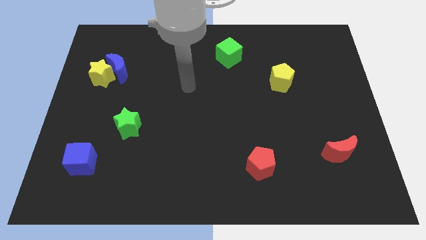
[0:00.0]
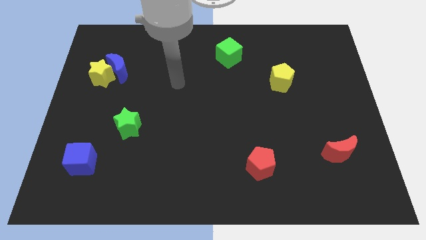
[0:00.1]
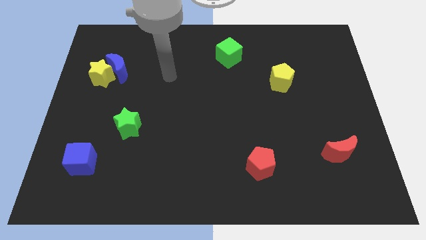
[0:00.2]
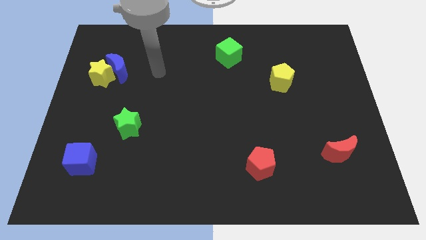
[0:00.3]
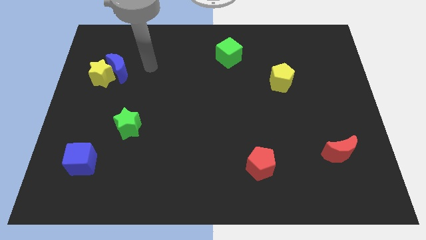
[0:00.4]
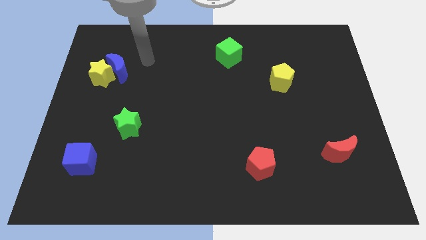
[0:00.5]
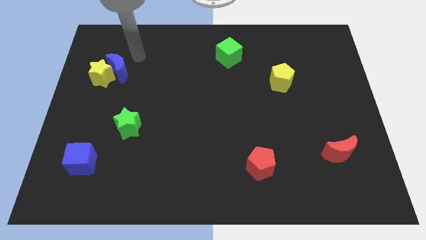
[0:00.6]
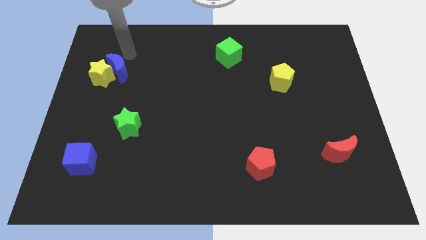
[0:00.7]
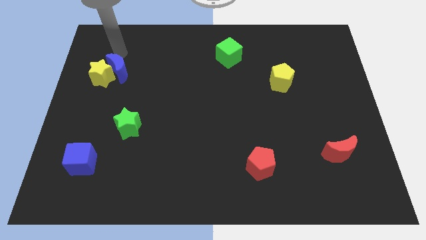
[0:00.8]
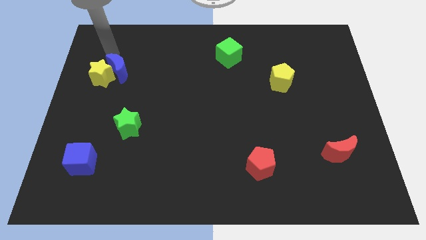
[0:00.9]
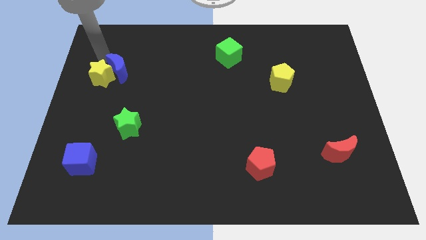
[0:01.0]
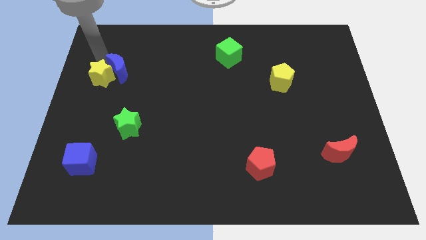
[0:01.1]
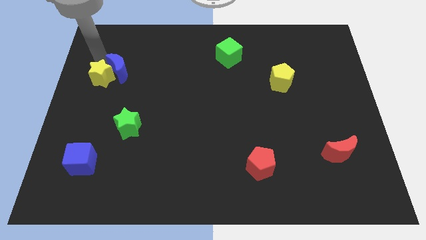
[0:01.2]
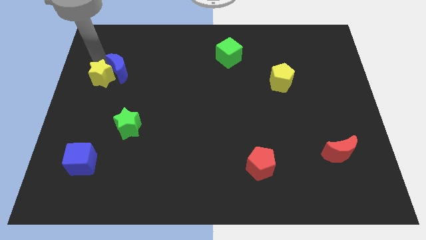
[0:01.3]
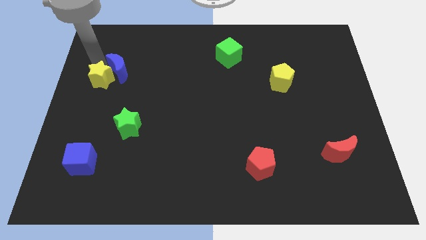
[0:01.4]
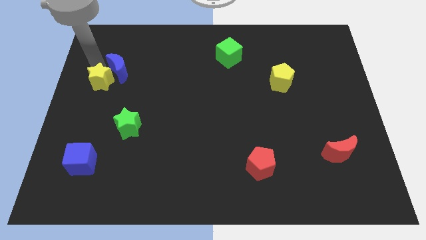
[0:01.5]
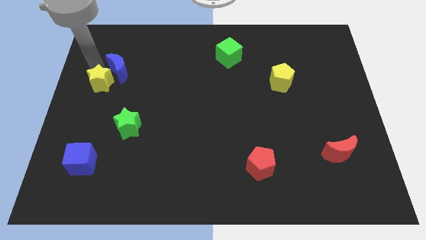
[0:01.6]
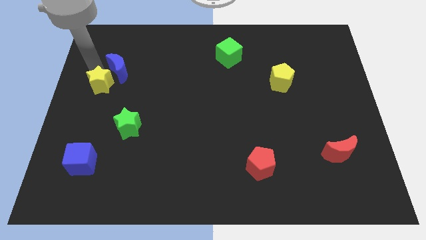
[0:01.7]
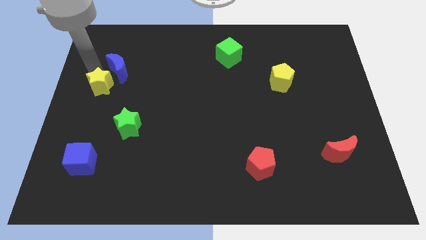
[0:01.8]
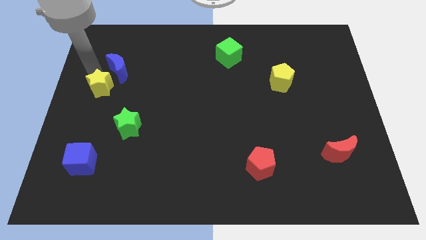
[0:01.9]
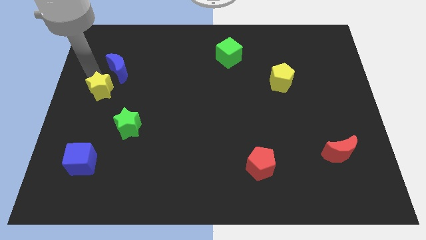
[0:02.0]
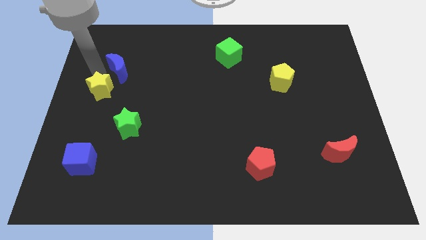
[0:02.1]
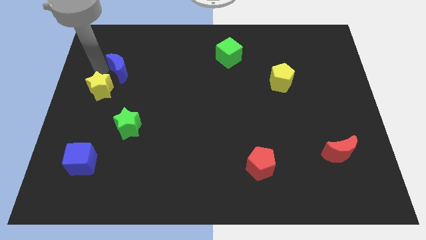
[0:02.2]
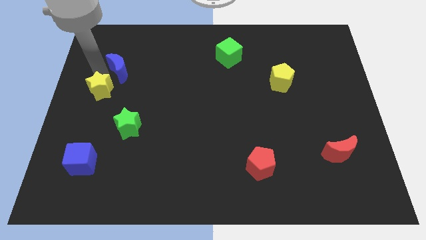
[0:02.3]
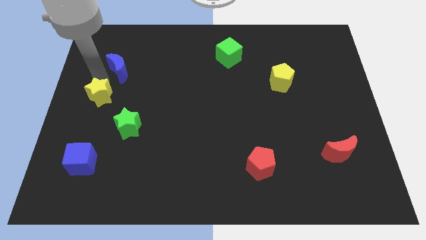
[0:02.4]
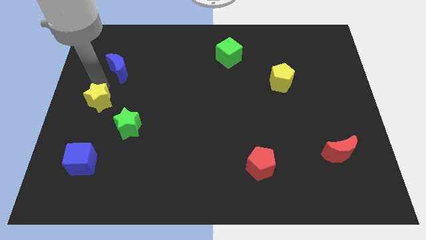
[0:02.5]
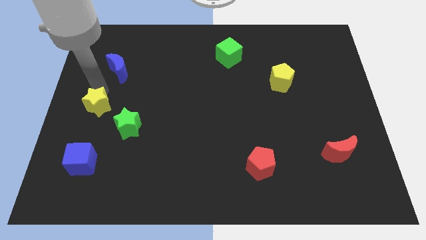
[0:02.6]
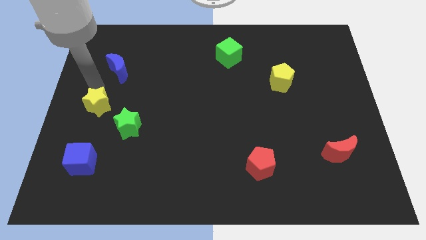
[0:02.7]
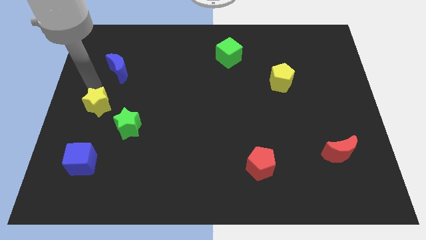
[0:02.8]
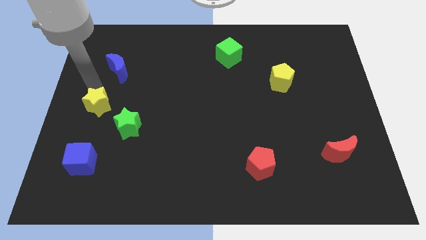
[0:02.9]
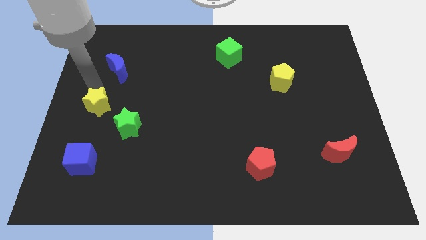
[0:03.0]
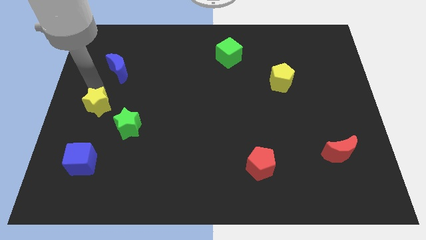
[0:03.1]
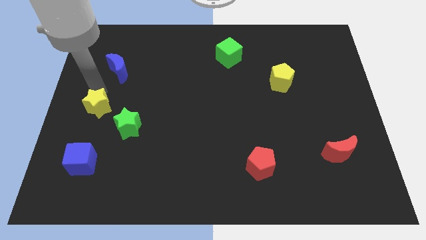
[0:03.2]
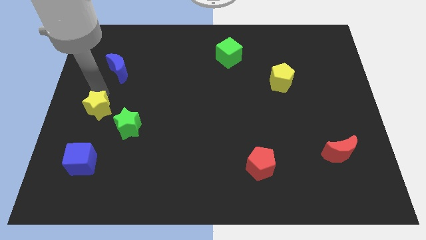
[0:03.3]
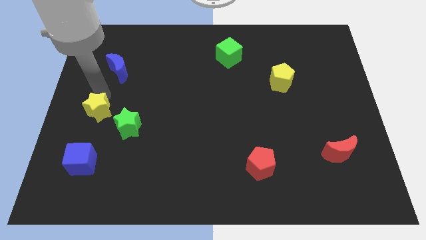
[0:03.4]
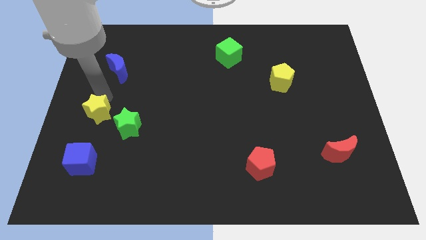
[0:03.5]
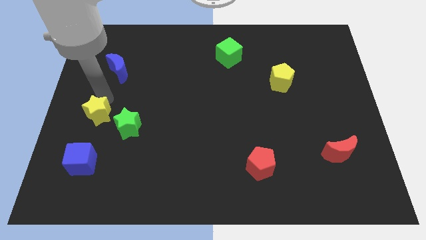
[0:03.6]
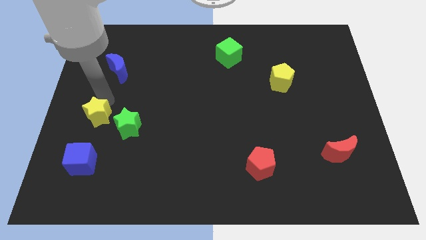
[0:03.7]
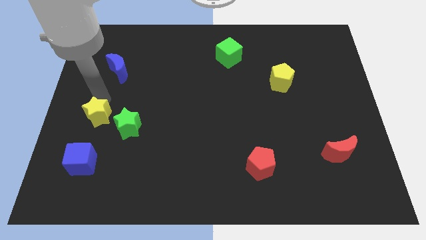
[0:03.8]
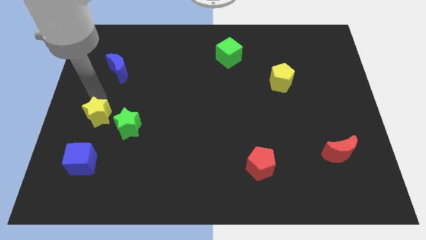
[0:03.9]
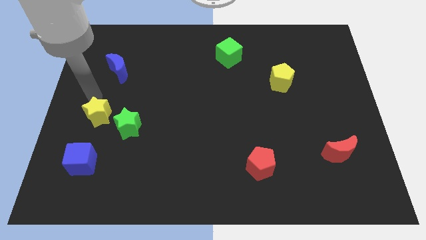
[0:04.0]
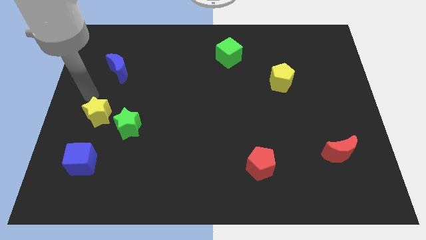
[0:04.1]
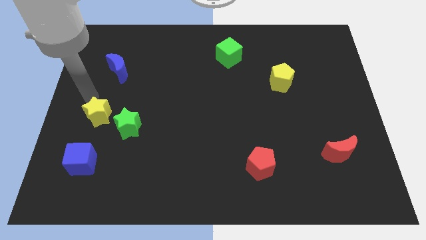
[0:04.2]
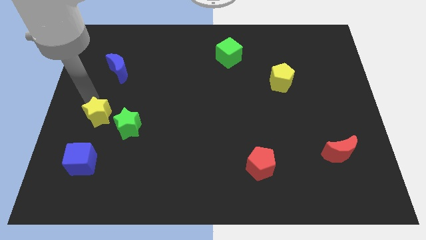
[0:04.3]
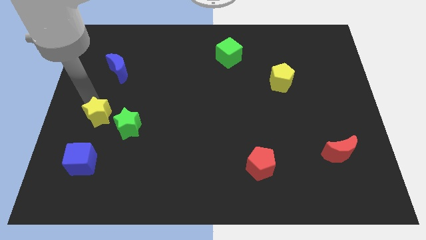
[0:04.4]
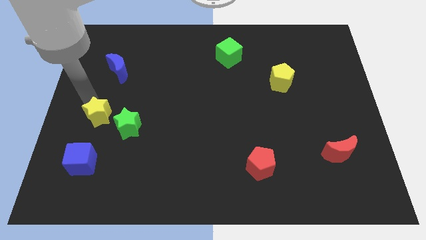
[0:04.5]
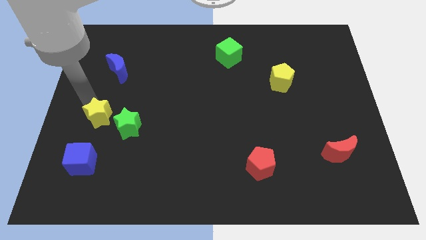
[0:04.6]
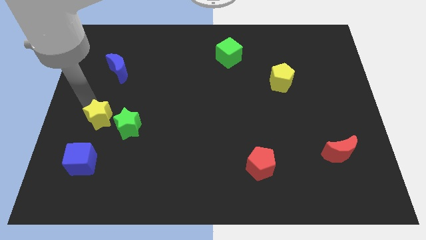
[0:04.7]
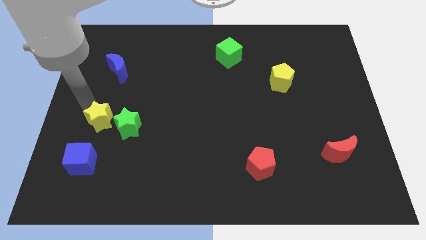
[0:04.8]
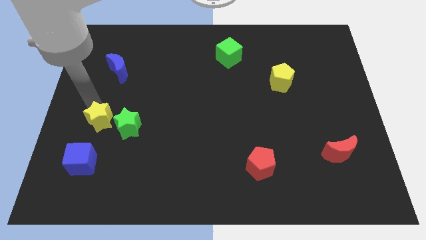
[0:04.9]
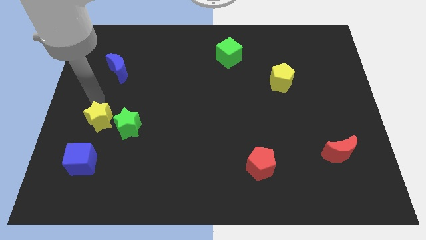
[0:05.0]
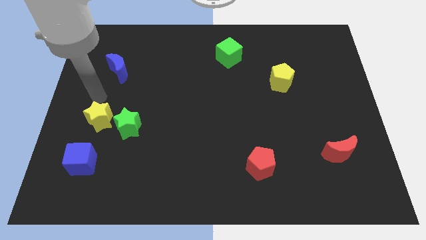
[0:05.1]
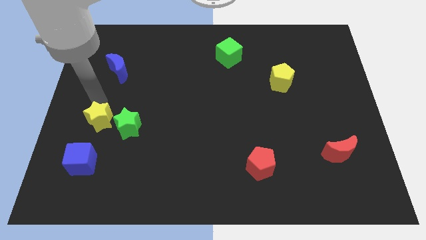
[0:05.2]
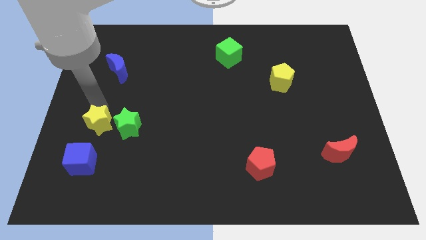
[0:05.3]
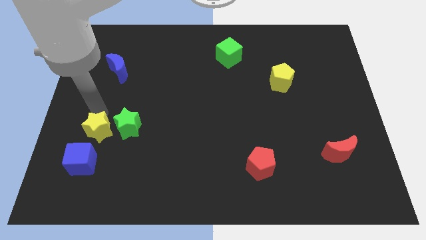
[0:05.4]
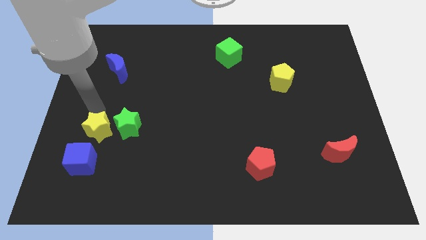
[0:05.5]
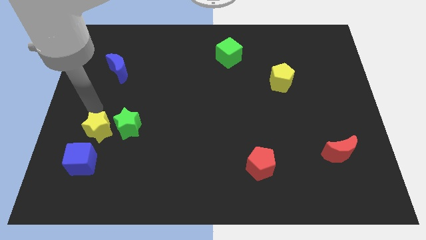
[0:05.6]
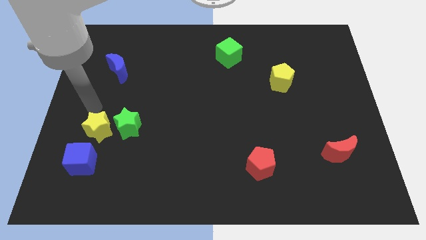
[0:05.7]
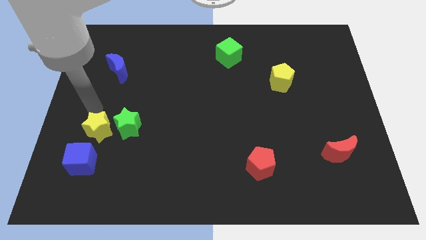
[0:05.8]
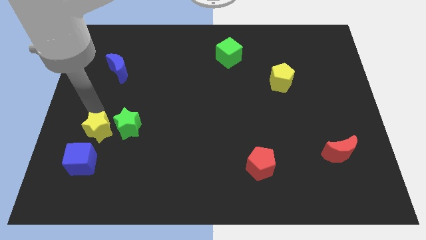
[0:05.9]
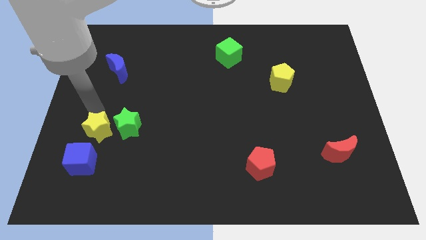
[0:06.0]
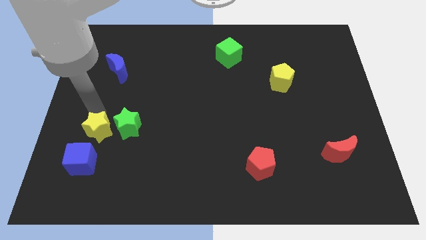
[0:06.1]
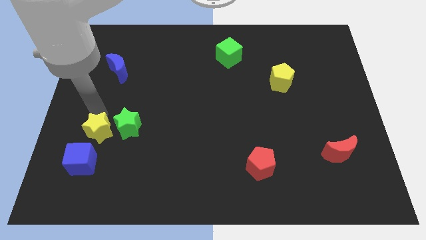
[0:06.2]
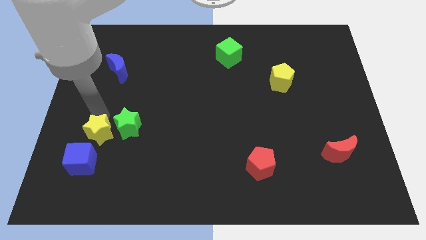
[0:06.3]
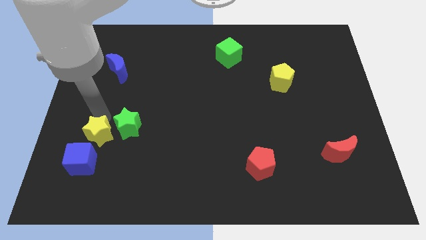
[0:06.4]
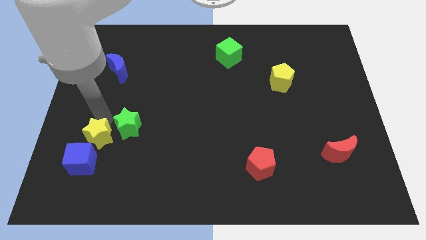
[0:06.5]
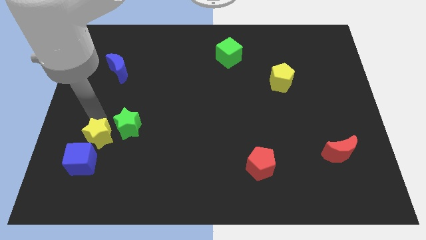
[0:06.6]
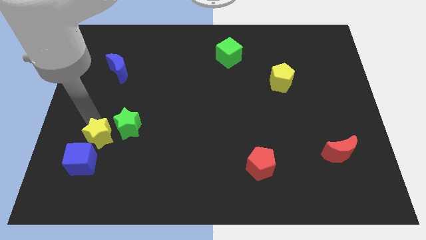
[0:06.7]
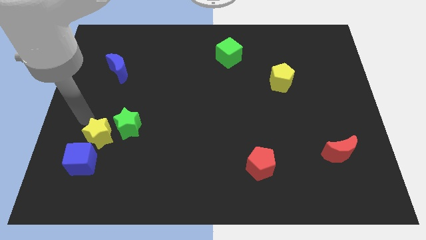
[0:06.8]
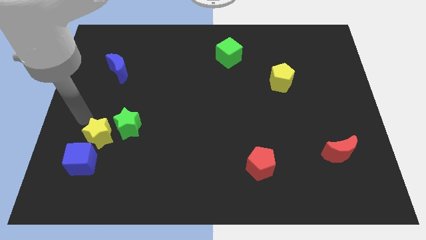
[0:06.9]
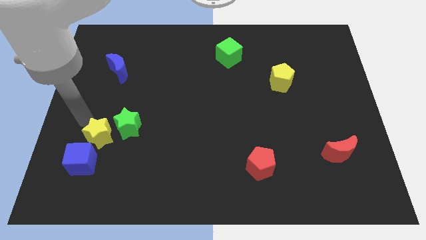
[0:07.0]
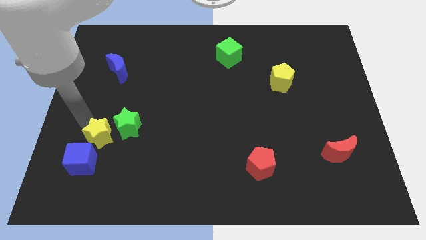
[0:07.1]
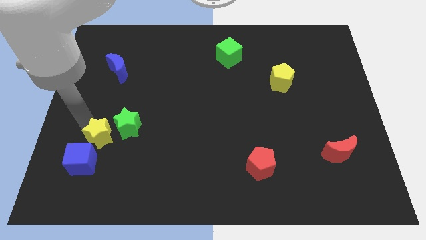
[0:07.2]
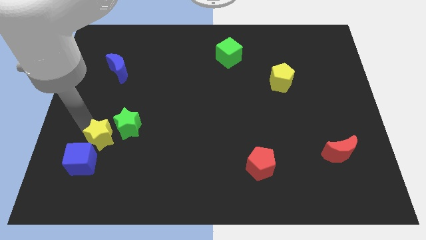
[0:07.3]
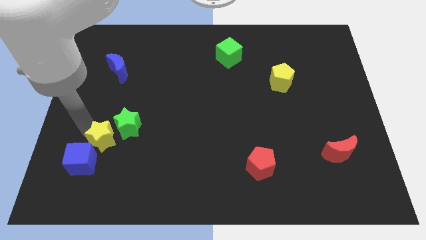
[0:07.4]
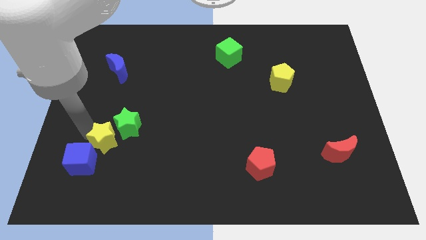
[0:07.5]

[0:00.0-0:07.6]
put the yellow star to the bottom of the green star
